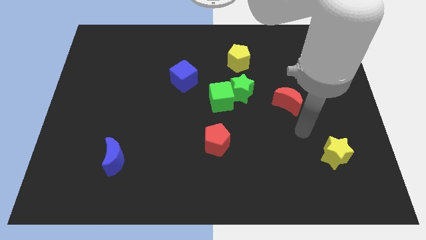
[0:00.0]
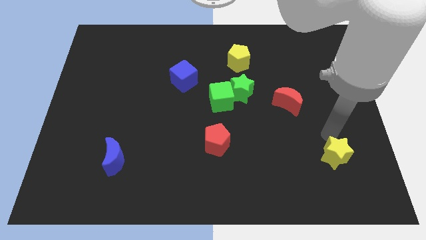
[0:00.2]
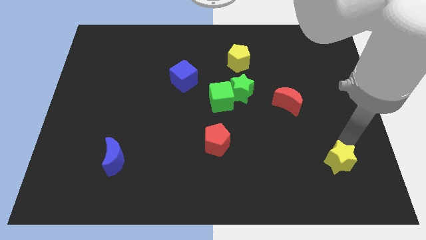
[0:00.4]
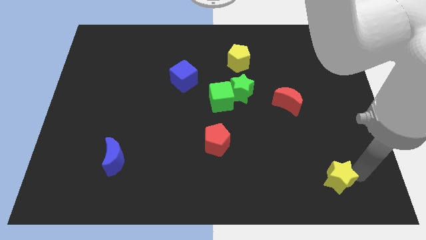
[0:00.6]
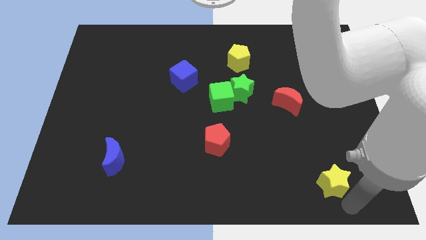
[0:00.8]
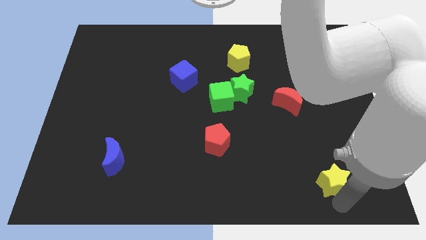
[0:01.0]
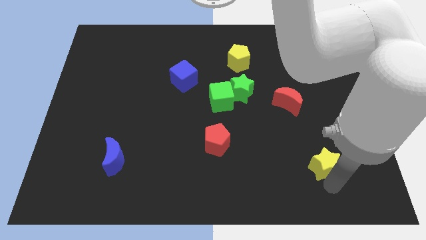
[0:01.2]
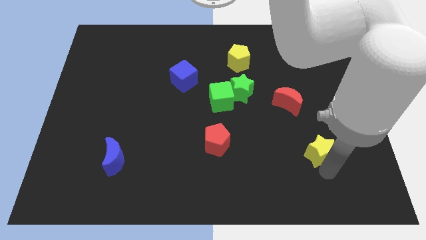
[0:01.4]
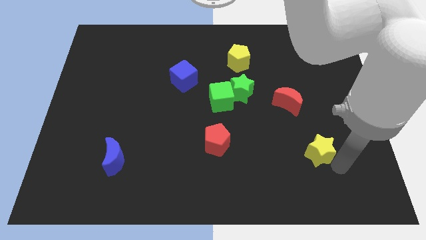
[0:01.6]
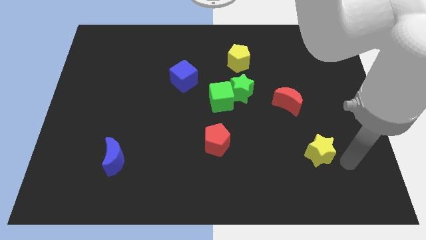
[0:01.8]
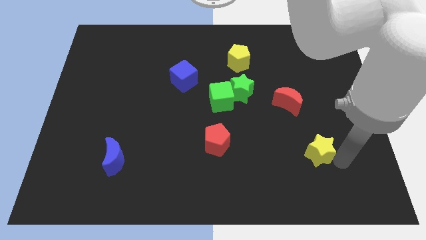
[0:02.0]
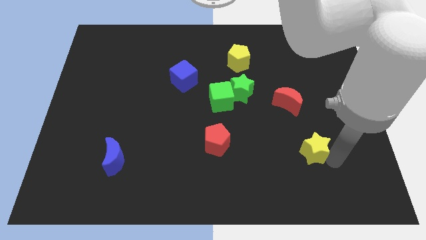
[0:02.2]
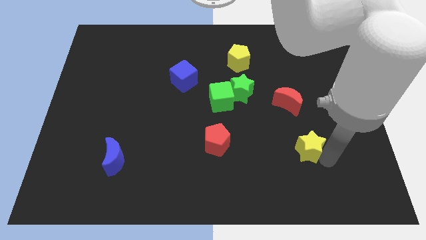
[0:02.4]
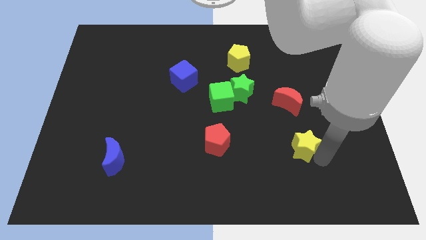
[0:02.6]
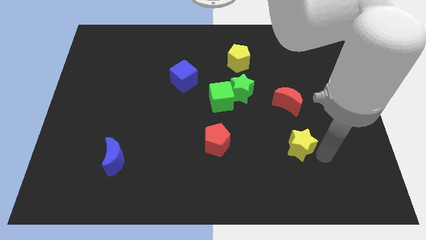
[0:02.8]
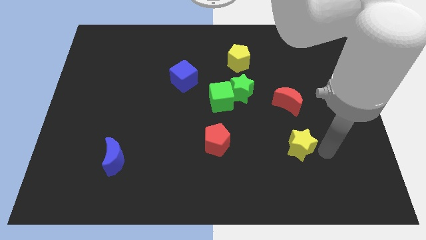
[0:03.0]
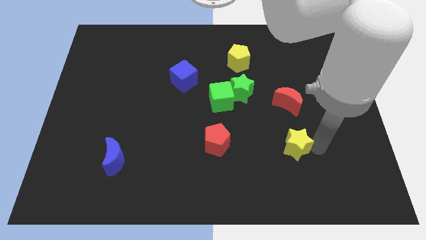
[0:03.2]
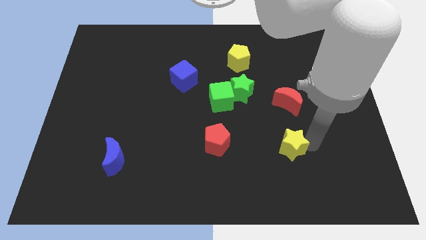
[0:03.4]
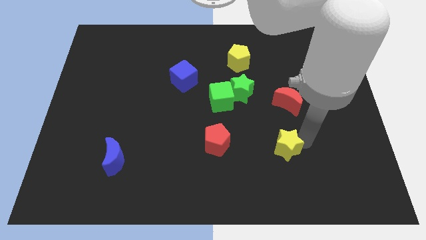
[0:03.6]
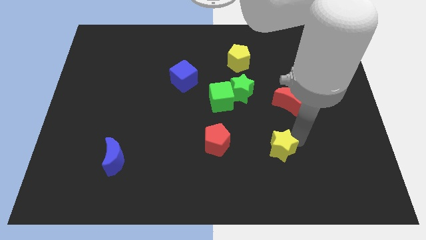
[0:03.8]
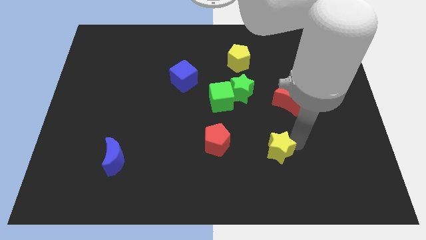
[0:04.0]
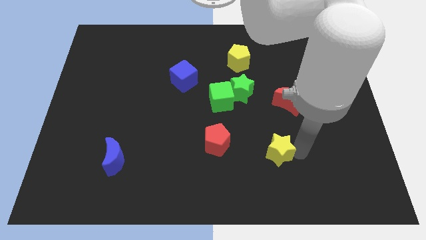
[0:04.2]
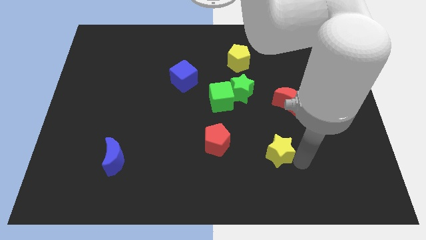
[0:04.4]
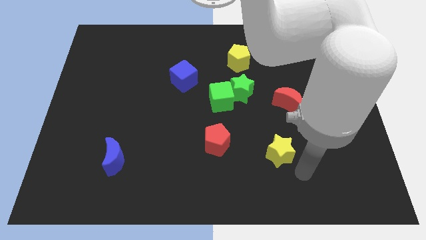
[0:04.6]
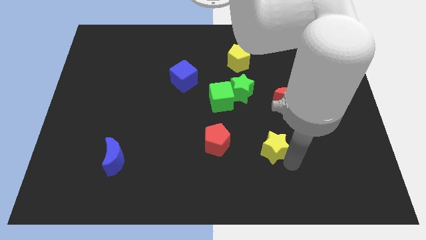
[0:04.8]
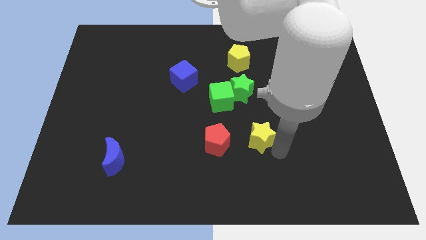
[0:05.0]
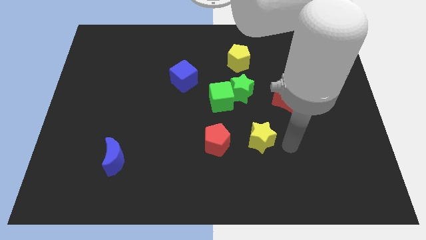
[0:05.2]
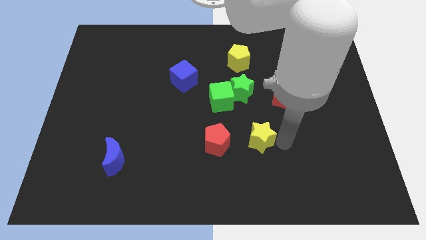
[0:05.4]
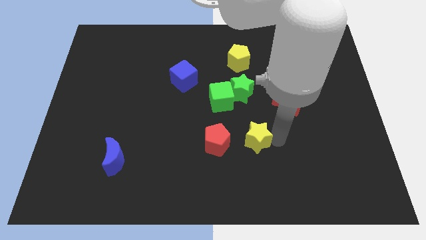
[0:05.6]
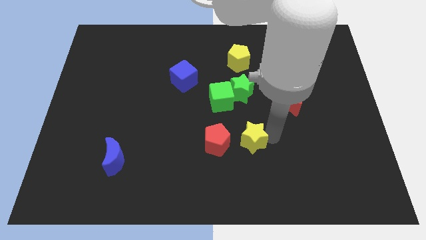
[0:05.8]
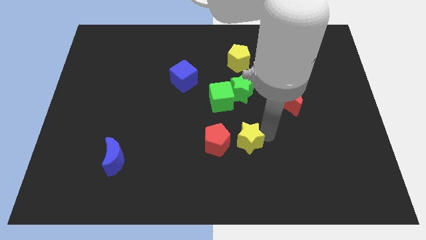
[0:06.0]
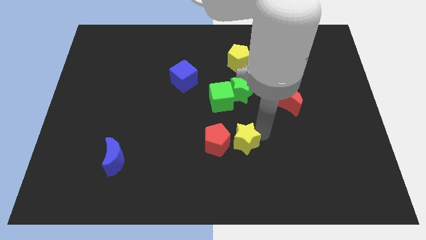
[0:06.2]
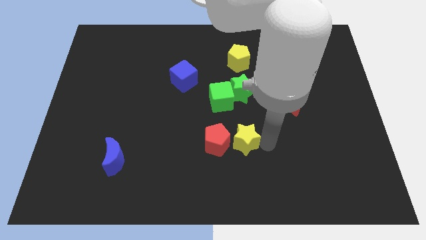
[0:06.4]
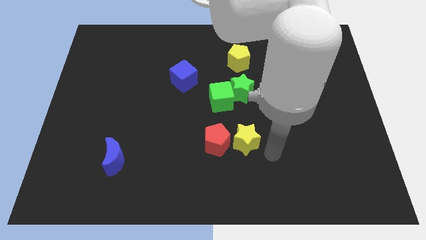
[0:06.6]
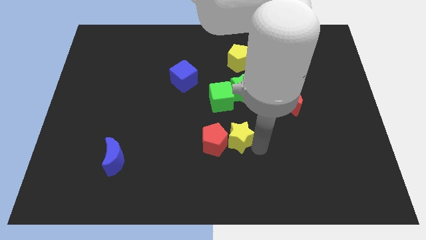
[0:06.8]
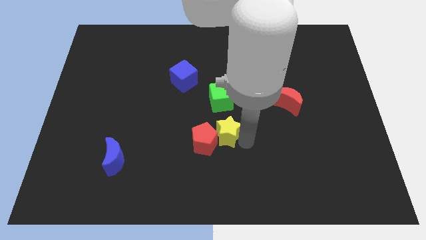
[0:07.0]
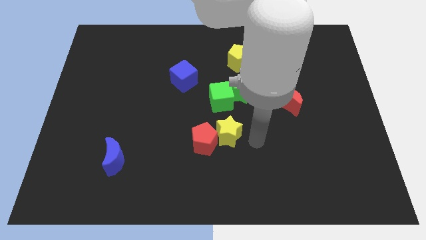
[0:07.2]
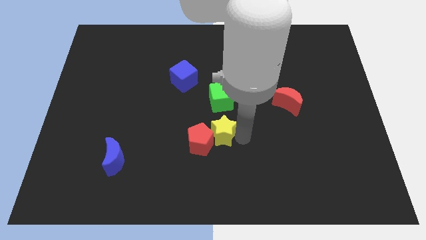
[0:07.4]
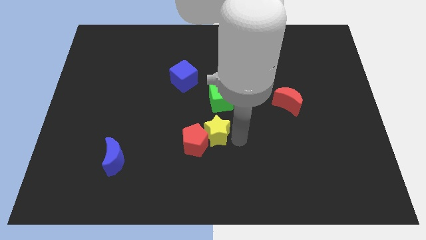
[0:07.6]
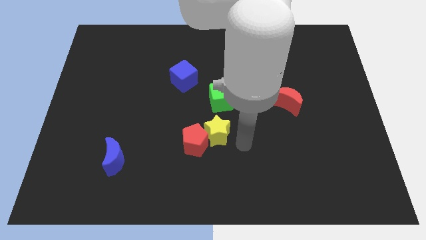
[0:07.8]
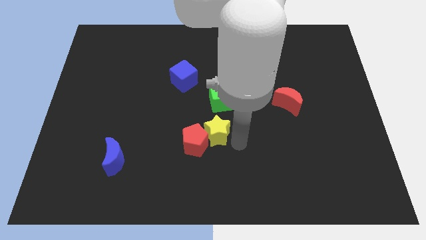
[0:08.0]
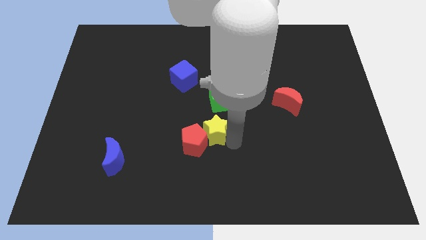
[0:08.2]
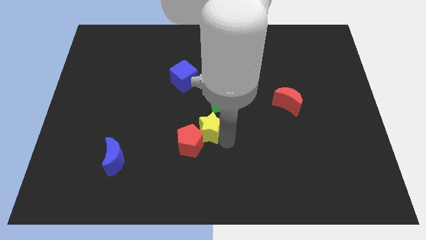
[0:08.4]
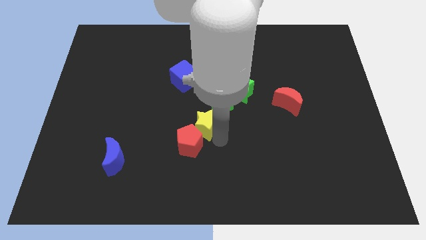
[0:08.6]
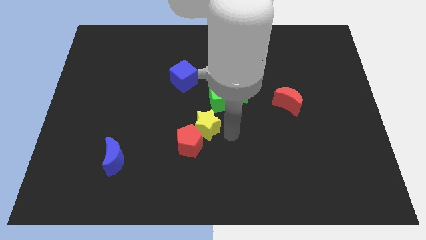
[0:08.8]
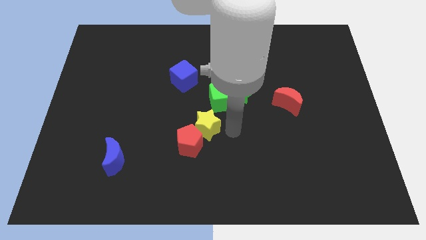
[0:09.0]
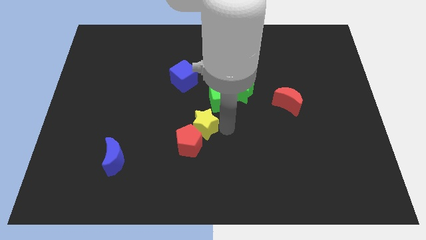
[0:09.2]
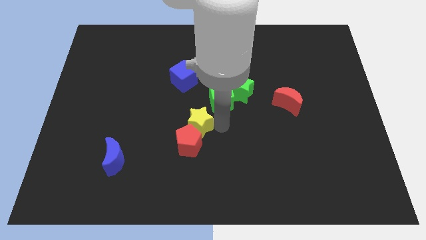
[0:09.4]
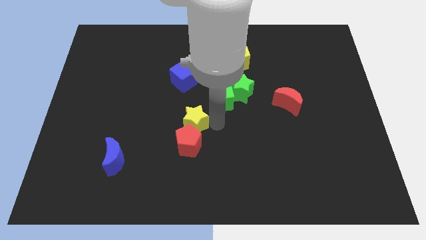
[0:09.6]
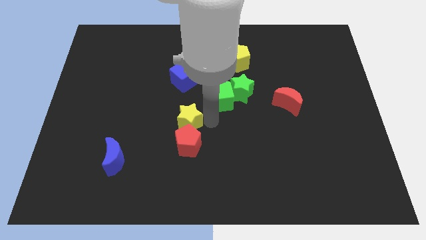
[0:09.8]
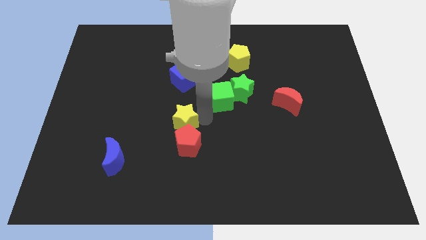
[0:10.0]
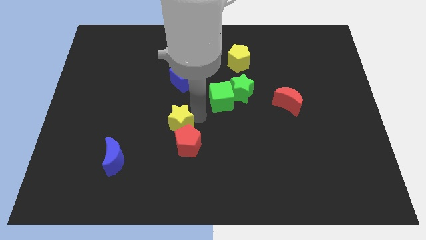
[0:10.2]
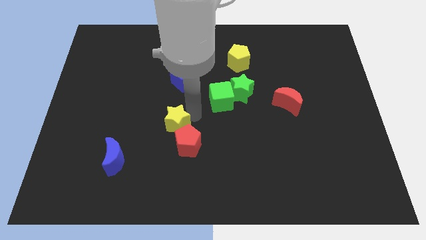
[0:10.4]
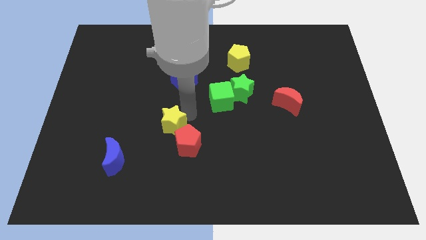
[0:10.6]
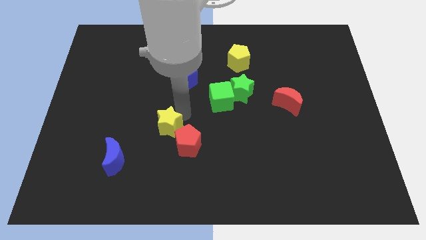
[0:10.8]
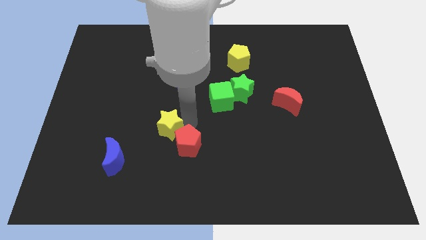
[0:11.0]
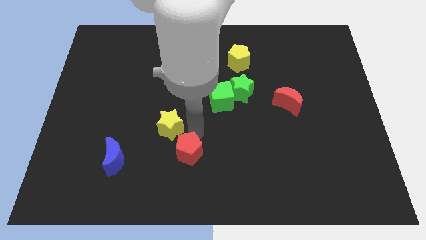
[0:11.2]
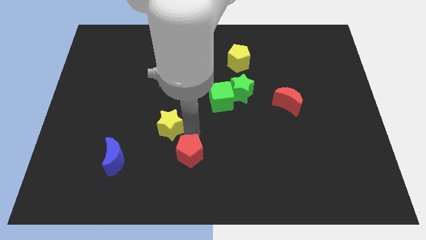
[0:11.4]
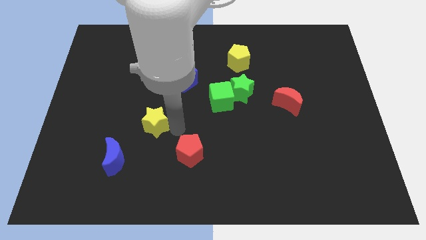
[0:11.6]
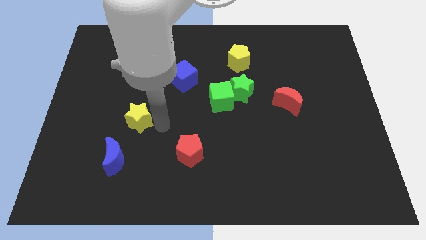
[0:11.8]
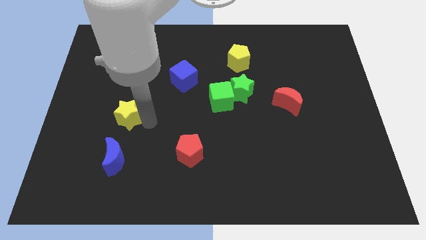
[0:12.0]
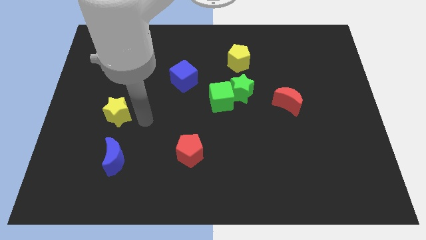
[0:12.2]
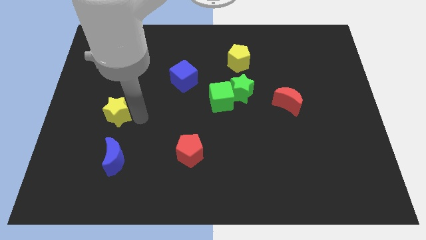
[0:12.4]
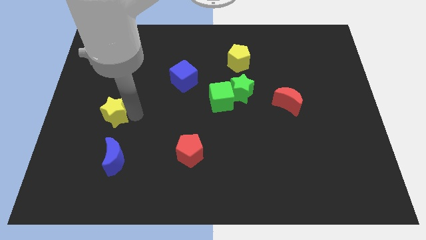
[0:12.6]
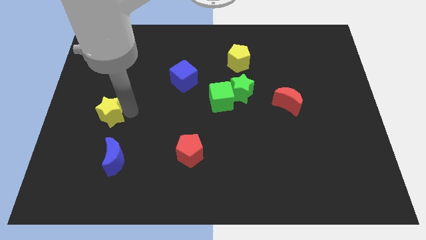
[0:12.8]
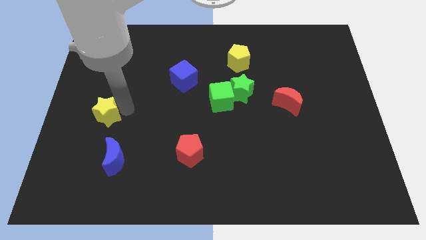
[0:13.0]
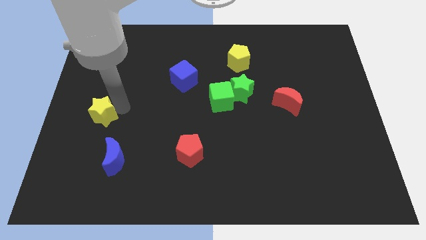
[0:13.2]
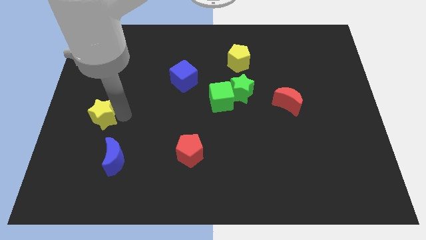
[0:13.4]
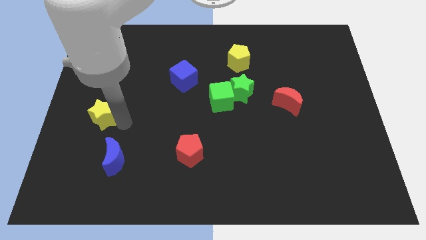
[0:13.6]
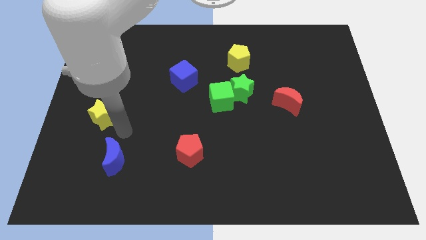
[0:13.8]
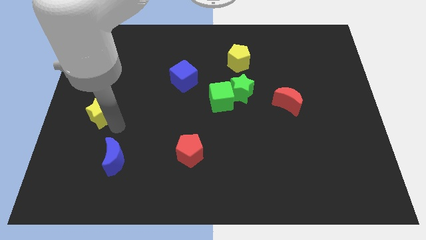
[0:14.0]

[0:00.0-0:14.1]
slide the yellow star to the left side of the board
